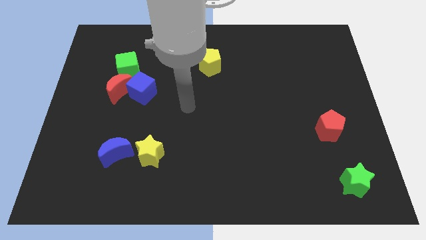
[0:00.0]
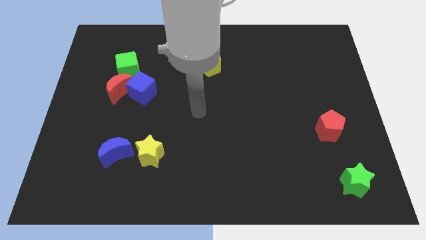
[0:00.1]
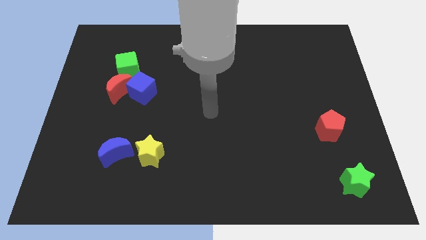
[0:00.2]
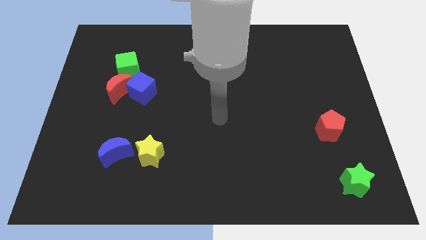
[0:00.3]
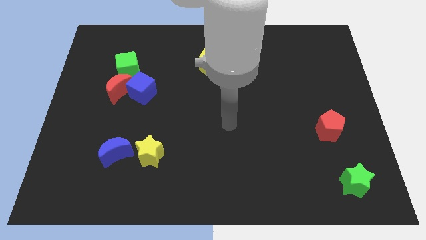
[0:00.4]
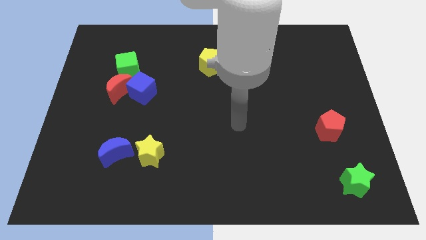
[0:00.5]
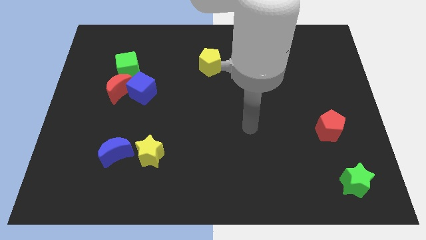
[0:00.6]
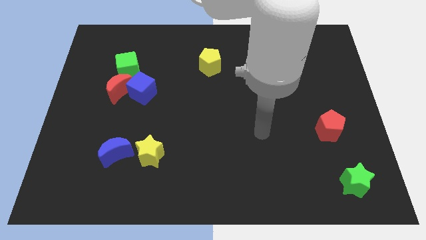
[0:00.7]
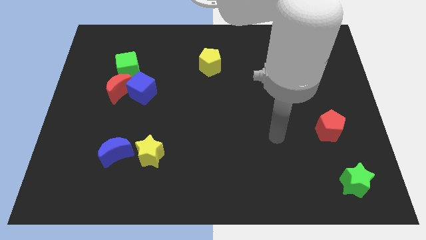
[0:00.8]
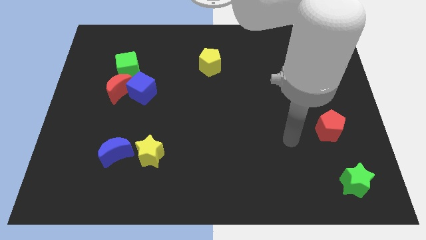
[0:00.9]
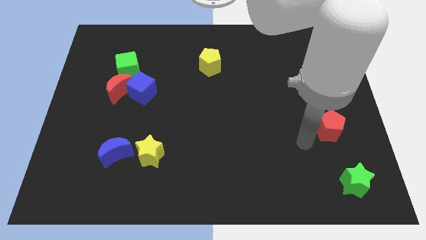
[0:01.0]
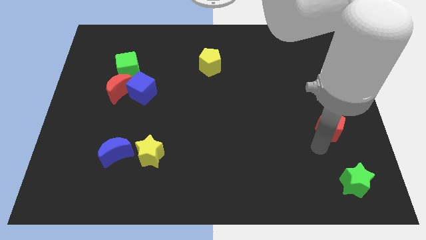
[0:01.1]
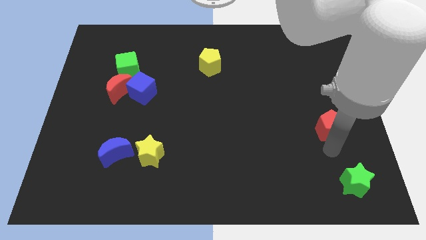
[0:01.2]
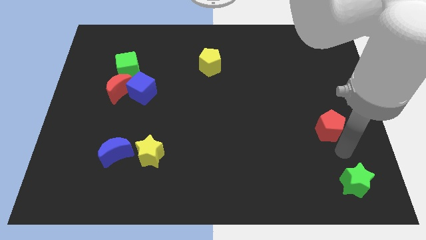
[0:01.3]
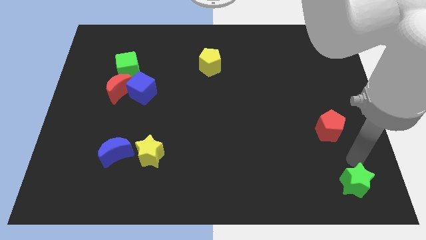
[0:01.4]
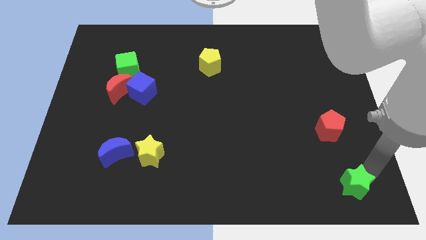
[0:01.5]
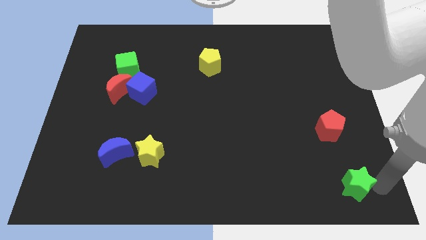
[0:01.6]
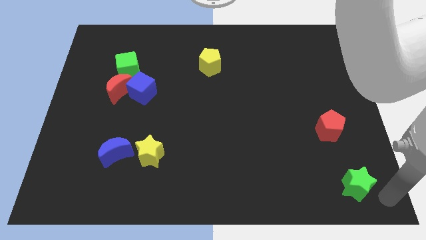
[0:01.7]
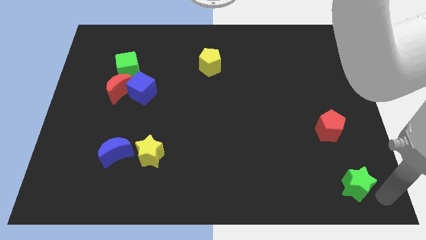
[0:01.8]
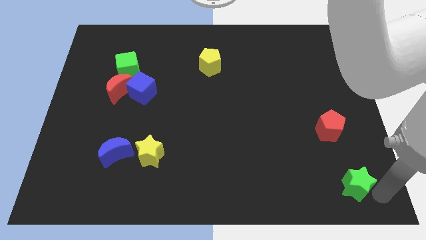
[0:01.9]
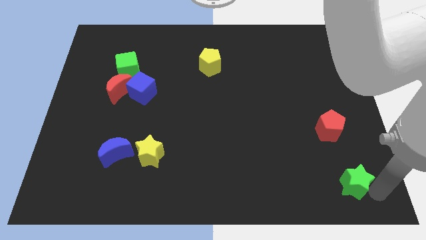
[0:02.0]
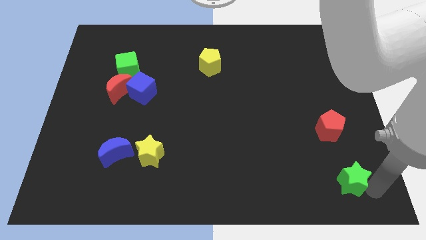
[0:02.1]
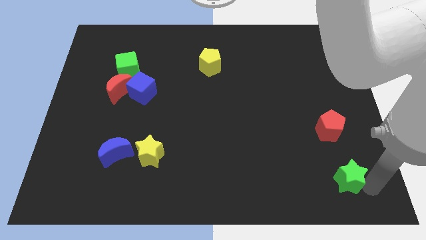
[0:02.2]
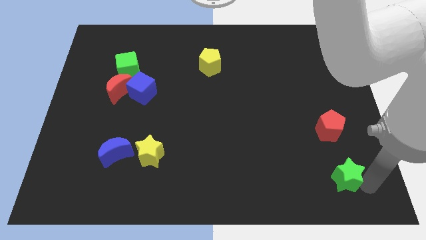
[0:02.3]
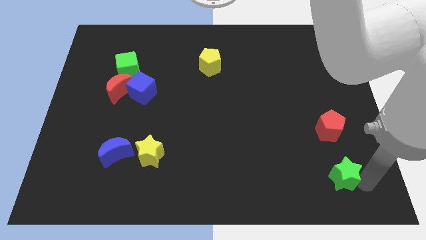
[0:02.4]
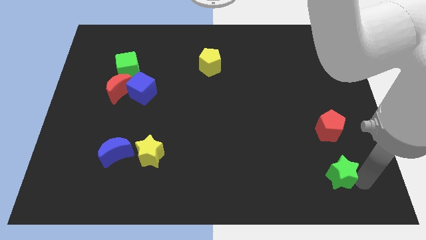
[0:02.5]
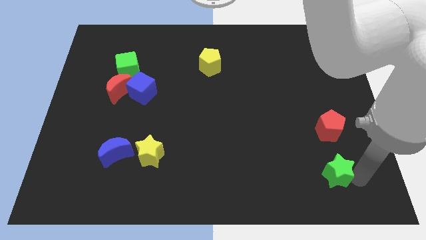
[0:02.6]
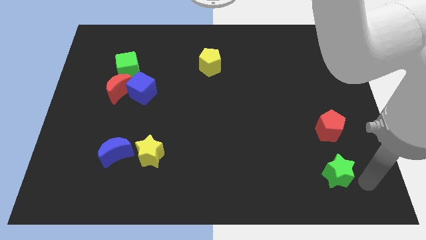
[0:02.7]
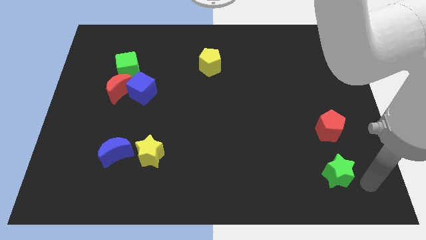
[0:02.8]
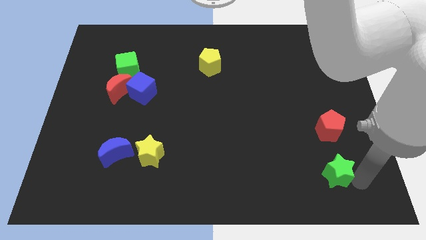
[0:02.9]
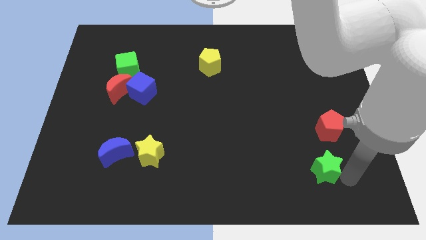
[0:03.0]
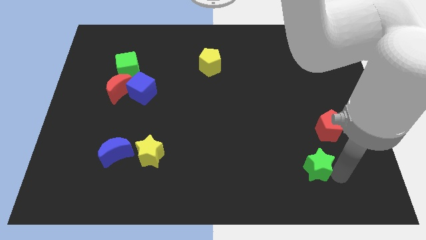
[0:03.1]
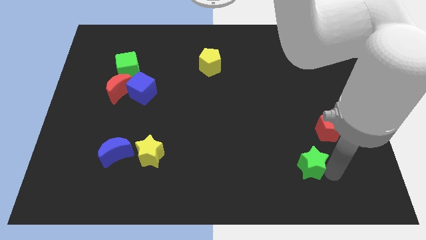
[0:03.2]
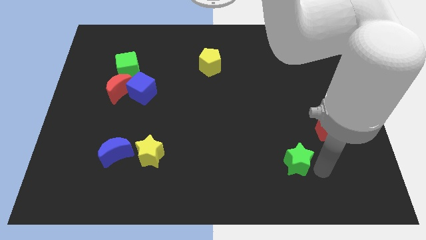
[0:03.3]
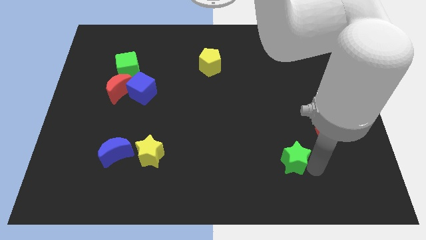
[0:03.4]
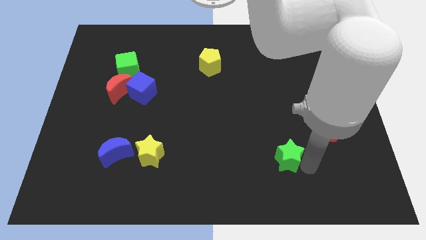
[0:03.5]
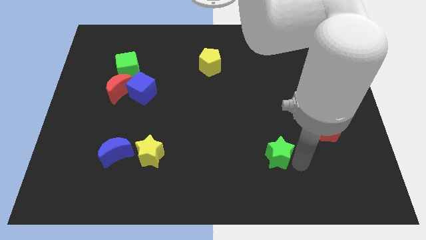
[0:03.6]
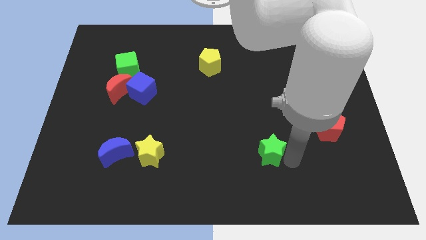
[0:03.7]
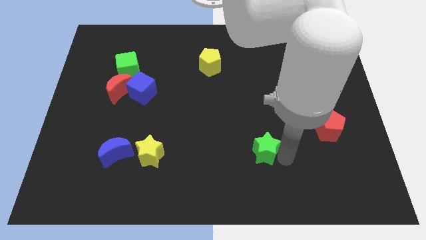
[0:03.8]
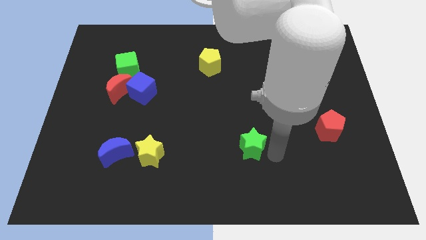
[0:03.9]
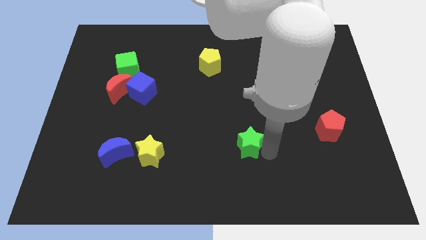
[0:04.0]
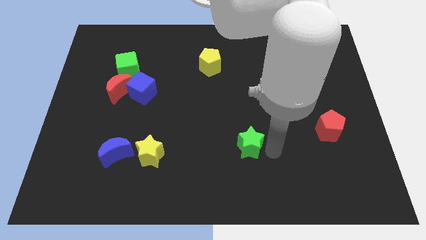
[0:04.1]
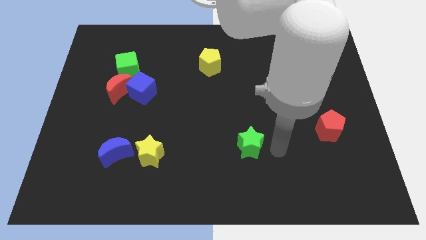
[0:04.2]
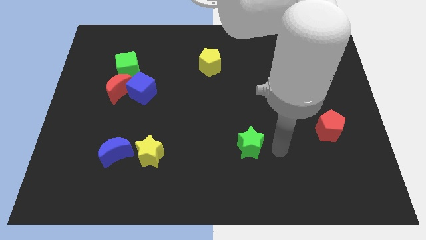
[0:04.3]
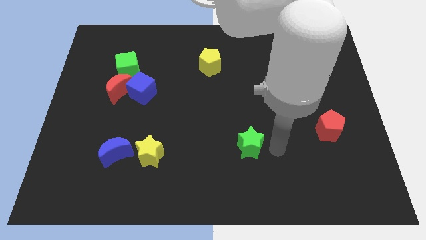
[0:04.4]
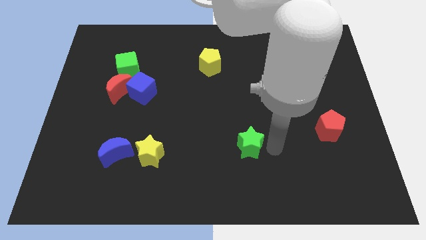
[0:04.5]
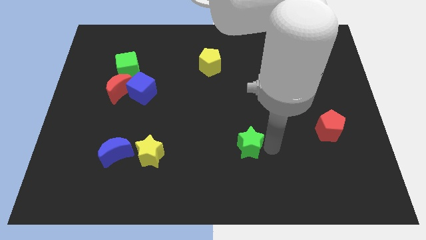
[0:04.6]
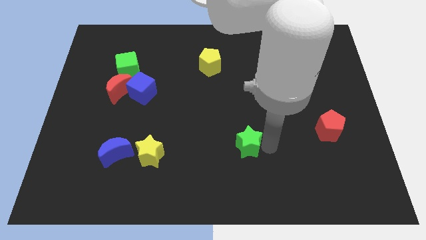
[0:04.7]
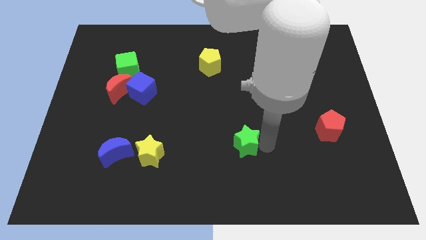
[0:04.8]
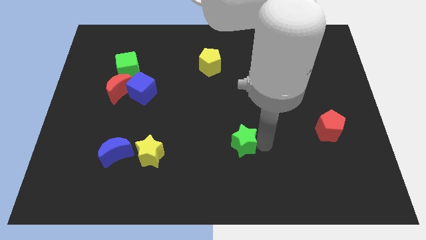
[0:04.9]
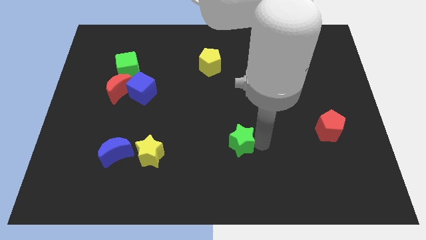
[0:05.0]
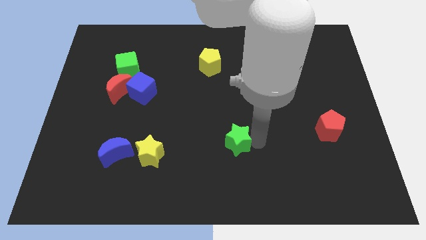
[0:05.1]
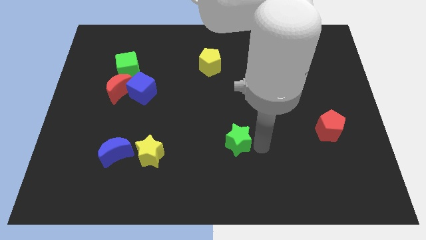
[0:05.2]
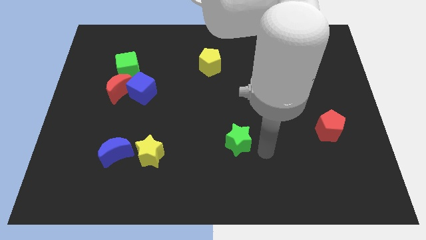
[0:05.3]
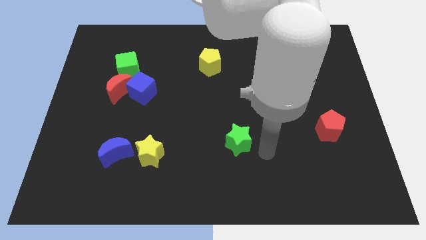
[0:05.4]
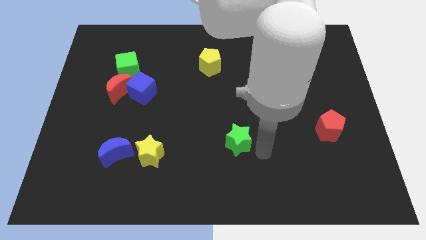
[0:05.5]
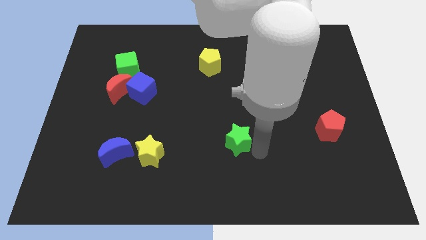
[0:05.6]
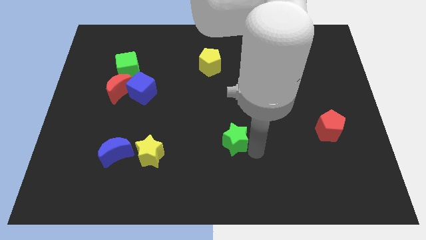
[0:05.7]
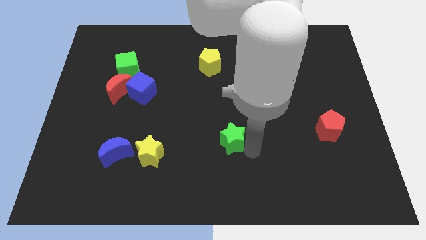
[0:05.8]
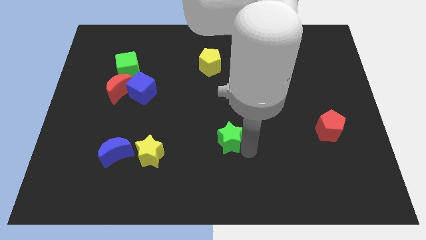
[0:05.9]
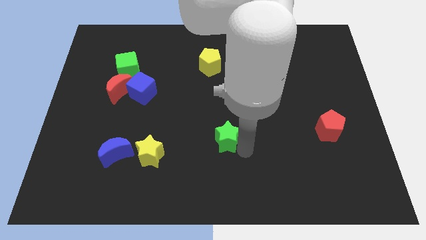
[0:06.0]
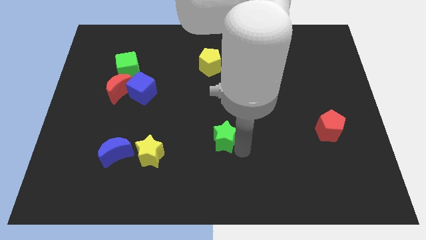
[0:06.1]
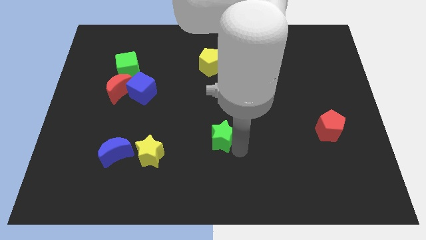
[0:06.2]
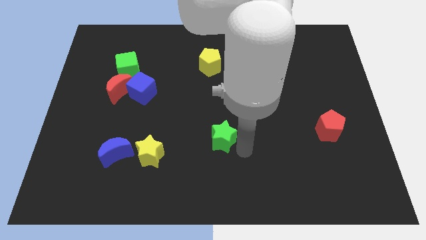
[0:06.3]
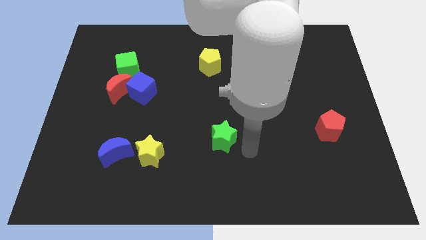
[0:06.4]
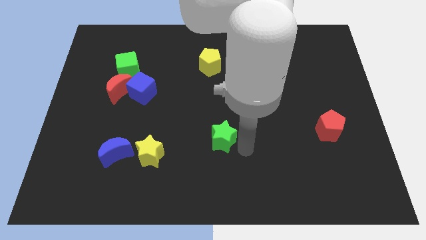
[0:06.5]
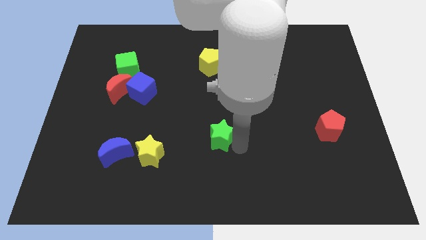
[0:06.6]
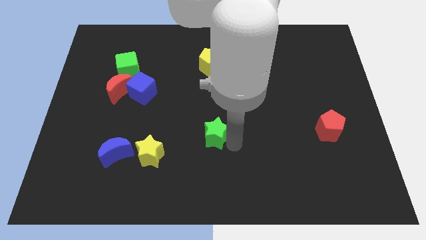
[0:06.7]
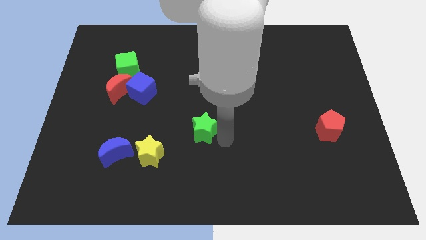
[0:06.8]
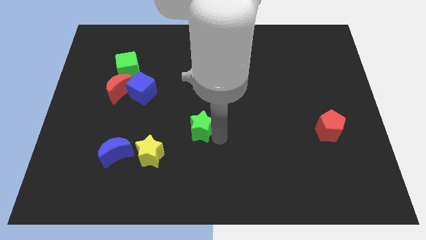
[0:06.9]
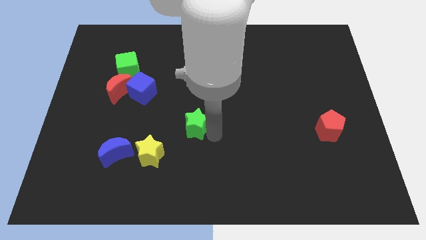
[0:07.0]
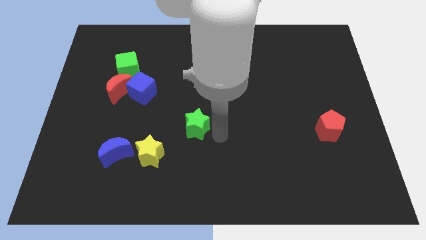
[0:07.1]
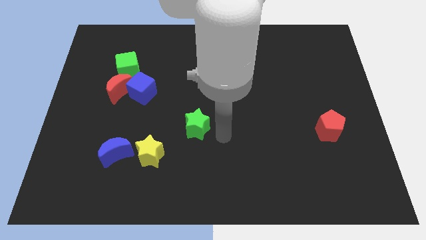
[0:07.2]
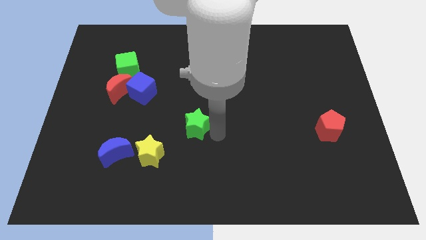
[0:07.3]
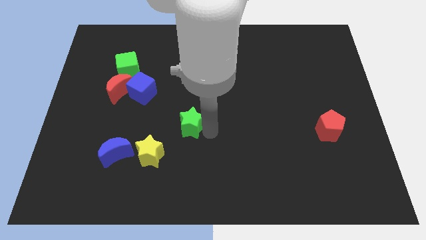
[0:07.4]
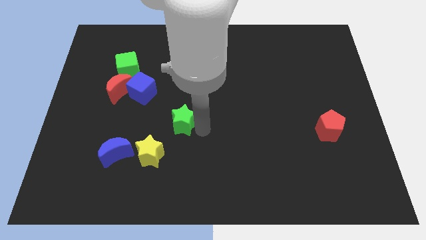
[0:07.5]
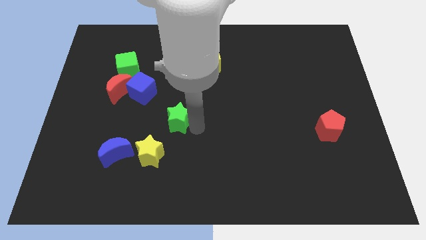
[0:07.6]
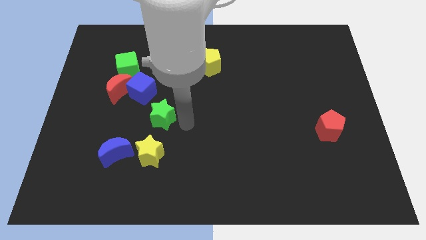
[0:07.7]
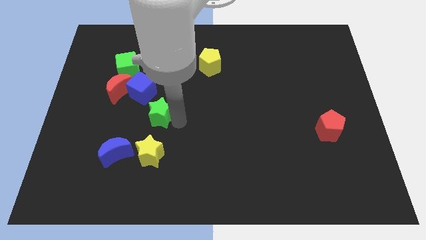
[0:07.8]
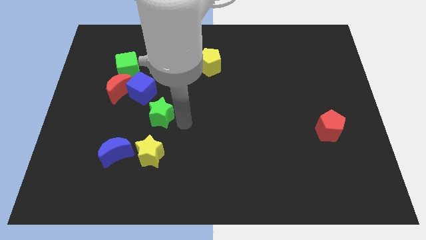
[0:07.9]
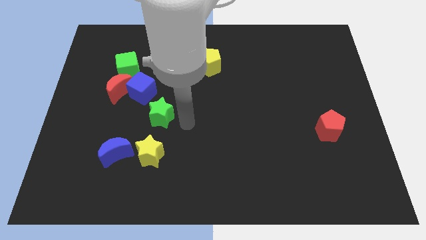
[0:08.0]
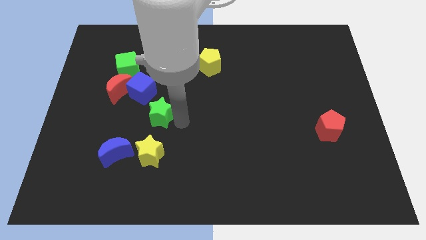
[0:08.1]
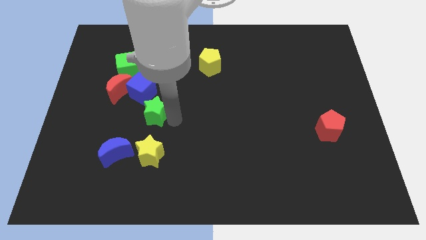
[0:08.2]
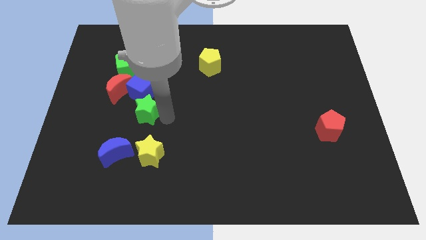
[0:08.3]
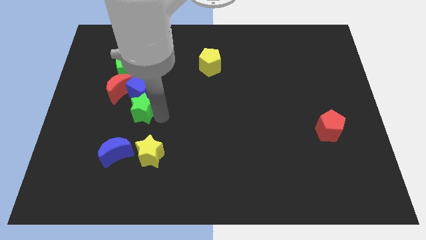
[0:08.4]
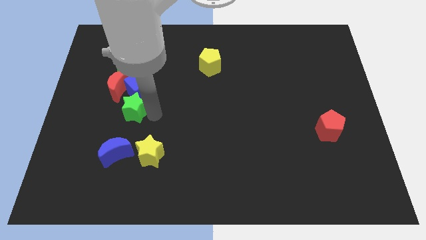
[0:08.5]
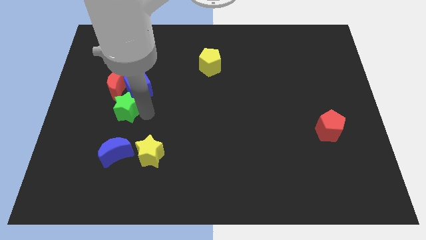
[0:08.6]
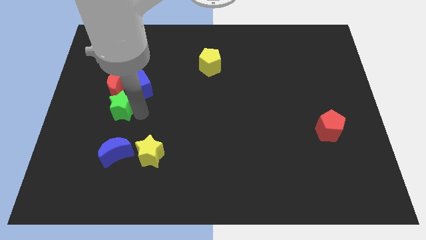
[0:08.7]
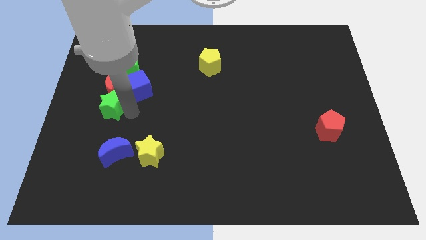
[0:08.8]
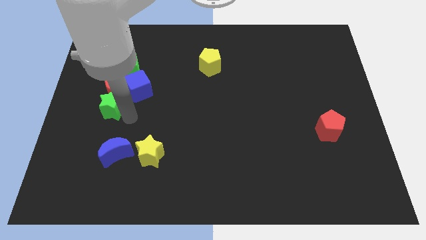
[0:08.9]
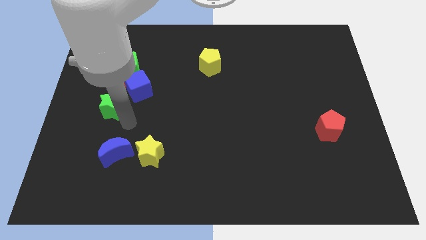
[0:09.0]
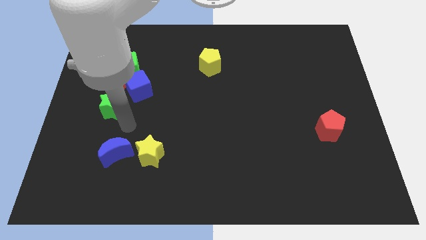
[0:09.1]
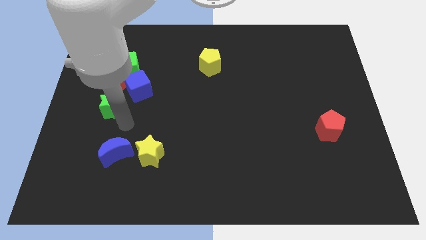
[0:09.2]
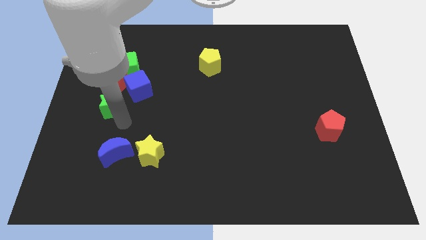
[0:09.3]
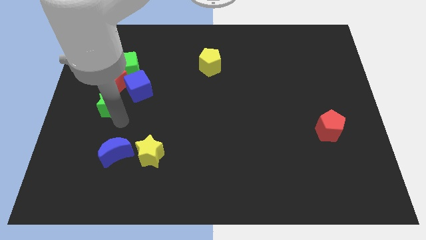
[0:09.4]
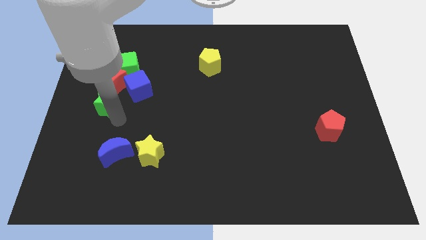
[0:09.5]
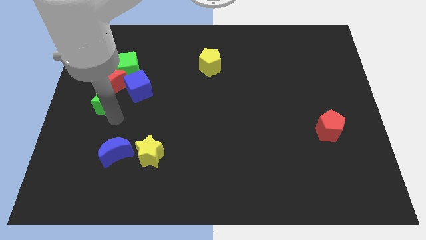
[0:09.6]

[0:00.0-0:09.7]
put the green star to the left of the blue cube
